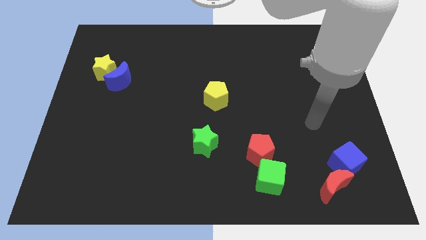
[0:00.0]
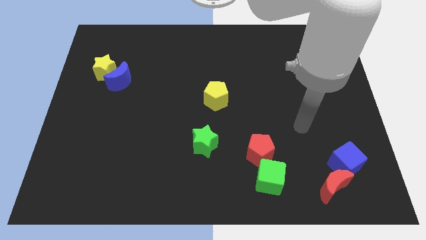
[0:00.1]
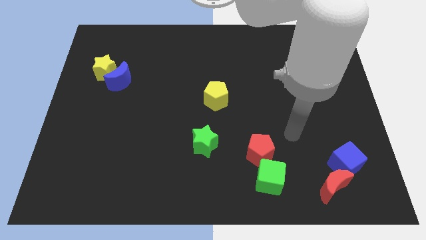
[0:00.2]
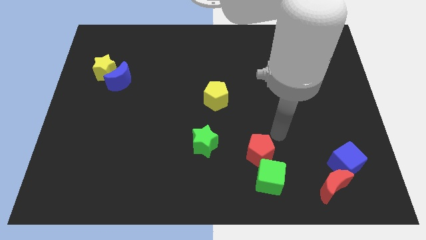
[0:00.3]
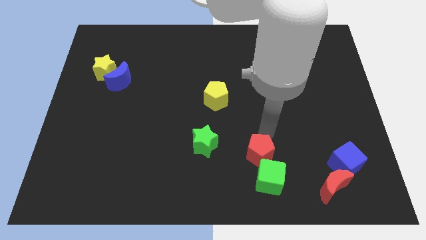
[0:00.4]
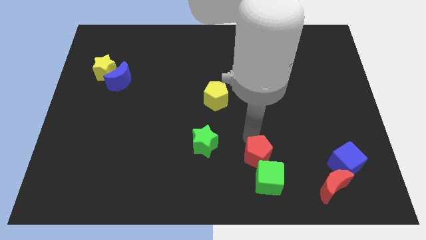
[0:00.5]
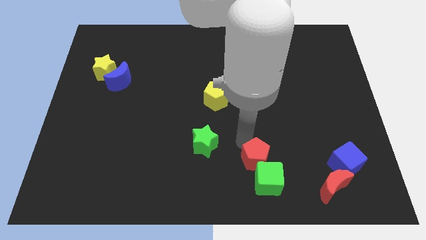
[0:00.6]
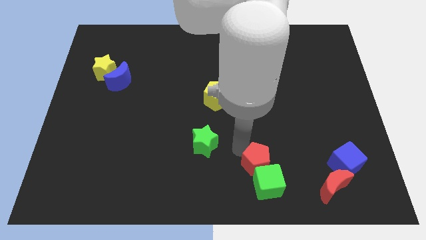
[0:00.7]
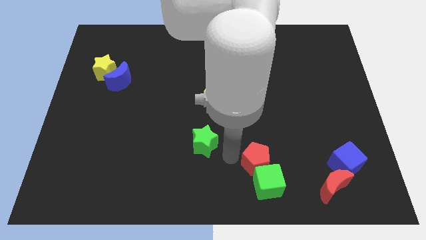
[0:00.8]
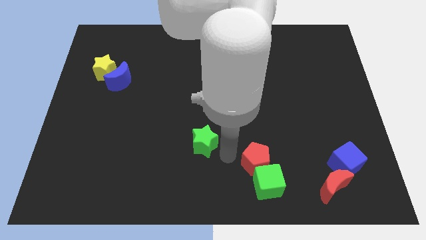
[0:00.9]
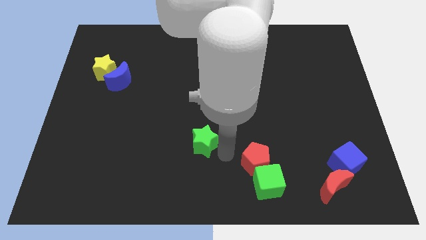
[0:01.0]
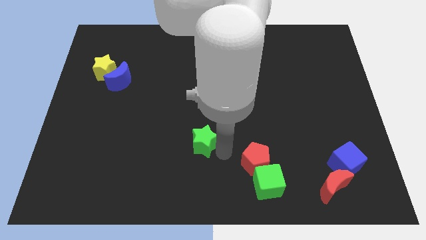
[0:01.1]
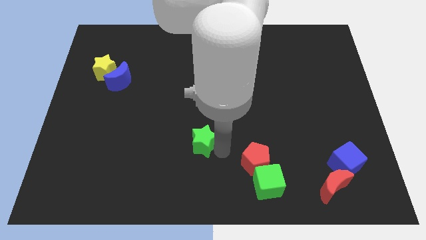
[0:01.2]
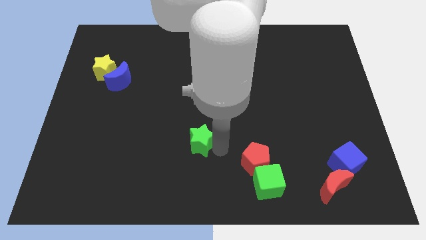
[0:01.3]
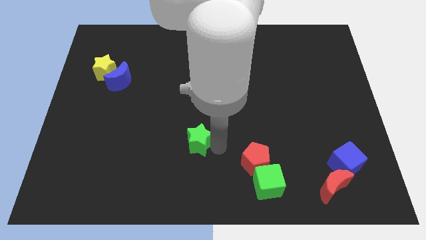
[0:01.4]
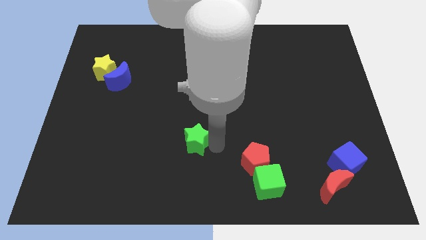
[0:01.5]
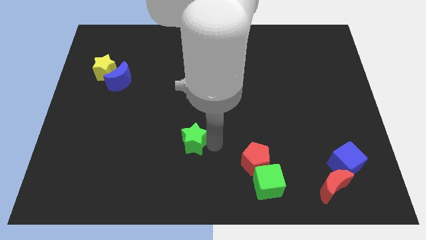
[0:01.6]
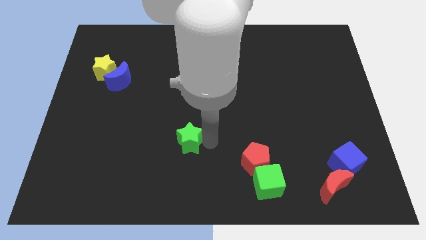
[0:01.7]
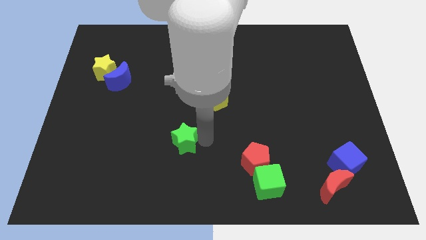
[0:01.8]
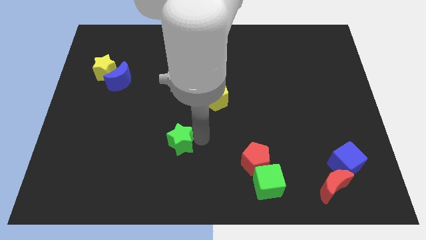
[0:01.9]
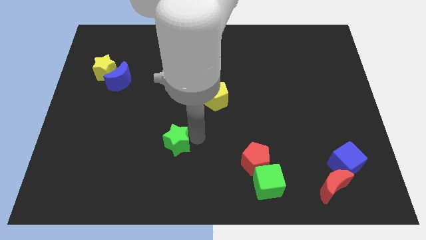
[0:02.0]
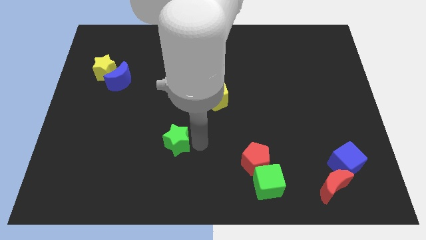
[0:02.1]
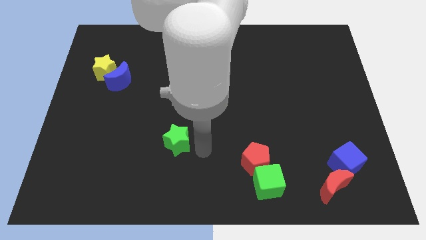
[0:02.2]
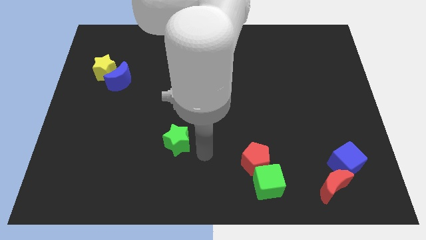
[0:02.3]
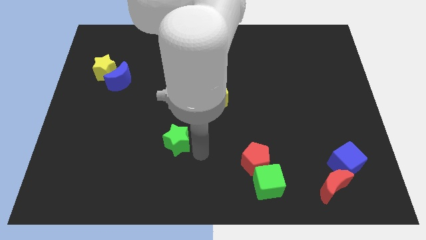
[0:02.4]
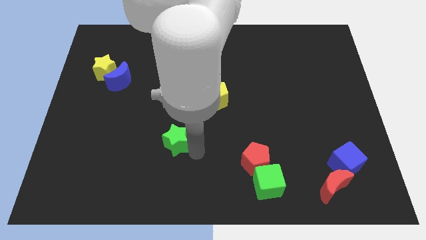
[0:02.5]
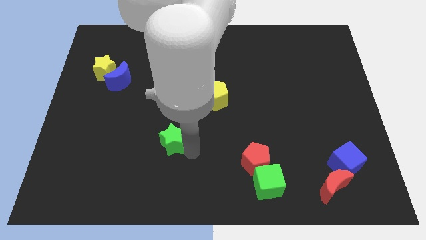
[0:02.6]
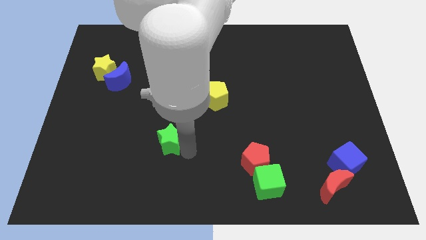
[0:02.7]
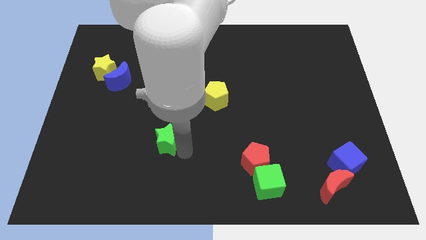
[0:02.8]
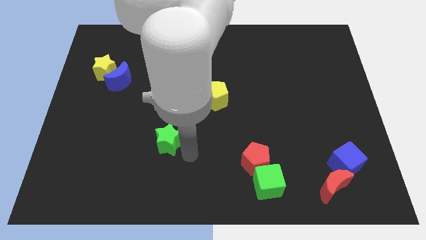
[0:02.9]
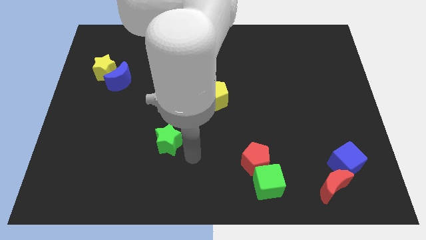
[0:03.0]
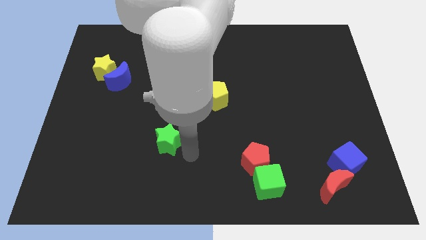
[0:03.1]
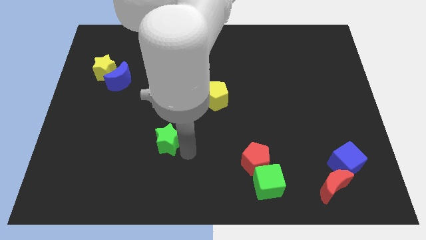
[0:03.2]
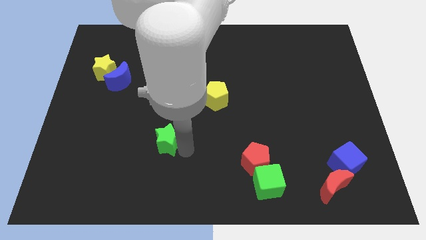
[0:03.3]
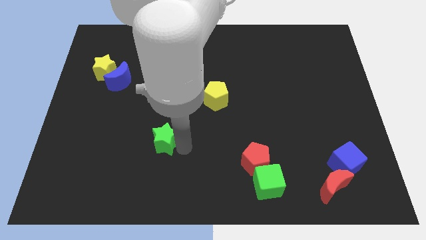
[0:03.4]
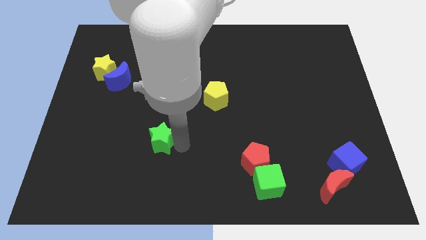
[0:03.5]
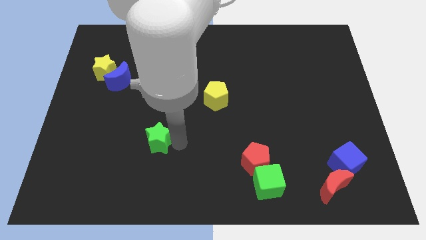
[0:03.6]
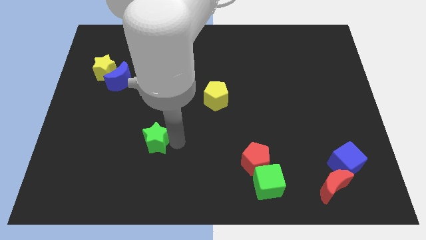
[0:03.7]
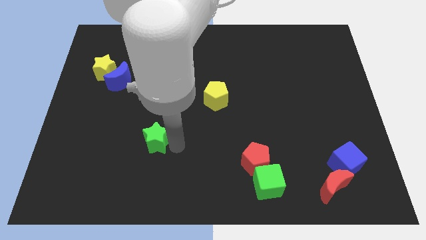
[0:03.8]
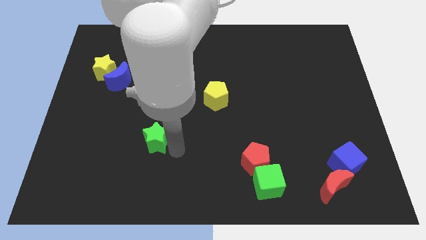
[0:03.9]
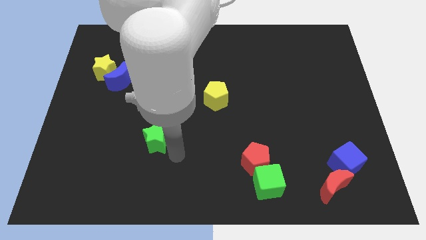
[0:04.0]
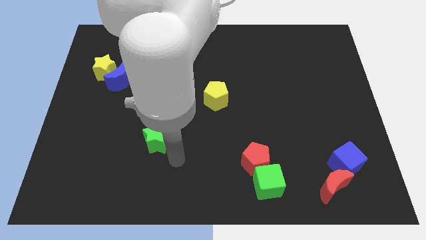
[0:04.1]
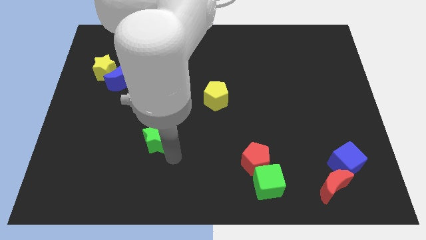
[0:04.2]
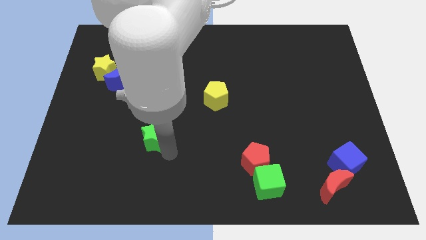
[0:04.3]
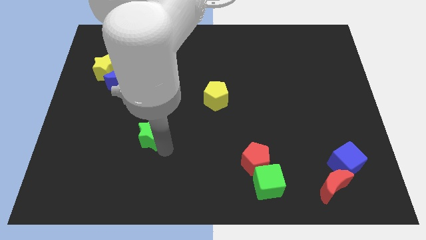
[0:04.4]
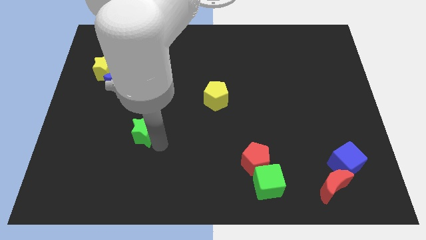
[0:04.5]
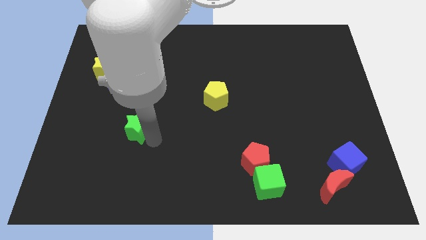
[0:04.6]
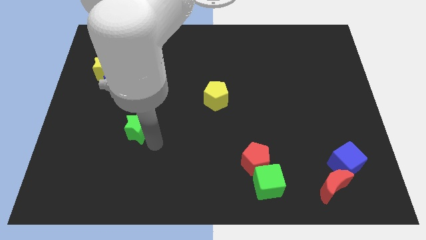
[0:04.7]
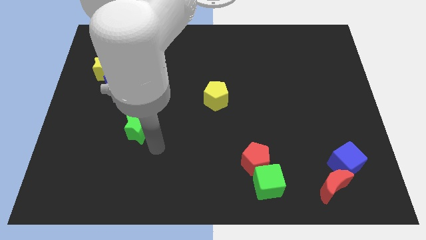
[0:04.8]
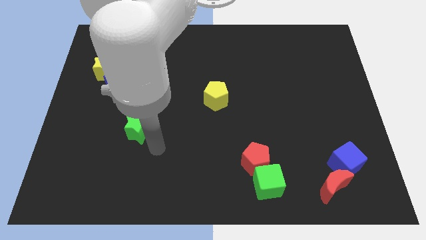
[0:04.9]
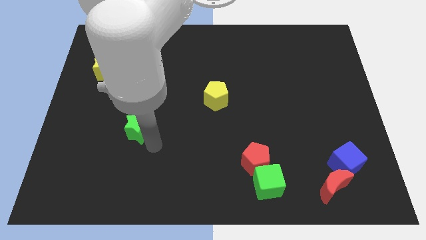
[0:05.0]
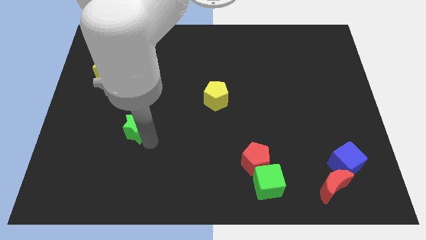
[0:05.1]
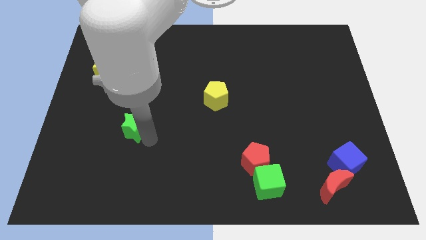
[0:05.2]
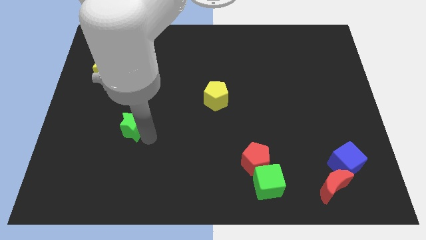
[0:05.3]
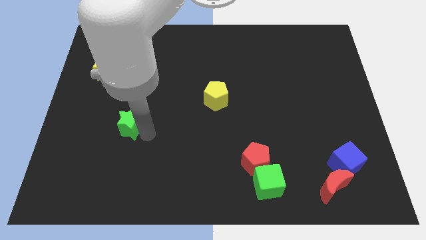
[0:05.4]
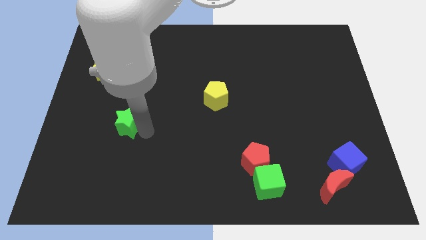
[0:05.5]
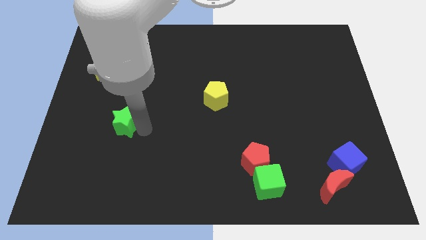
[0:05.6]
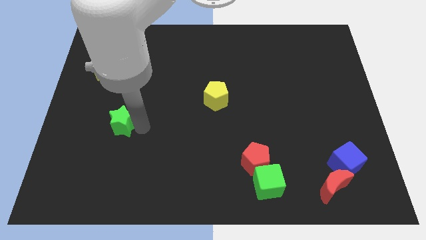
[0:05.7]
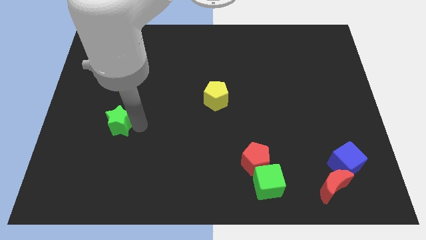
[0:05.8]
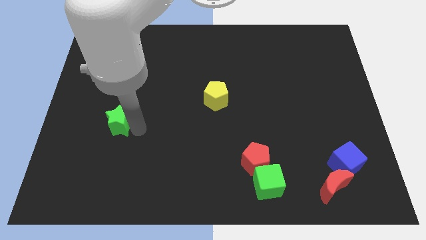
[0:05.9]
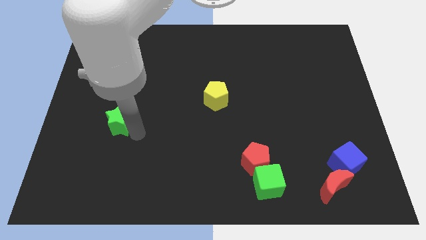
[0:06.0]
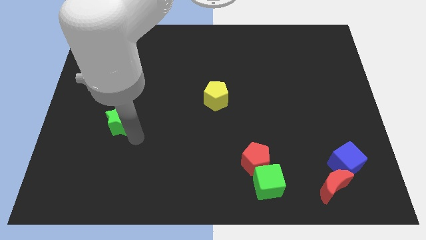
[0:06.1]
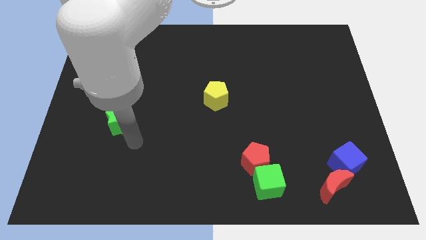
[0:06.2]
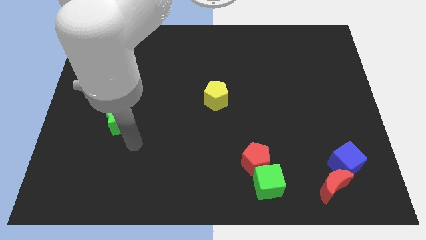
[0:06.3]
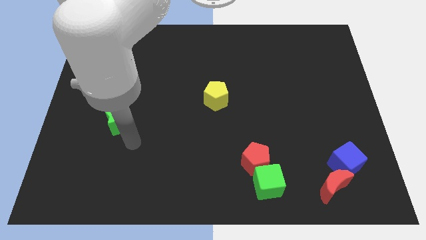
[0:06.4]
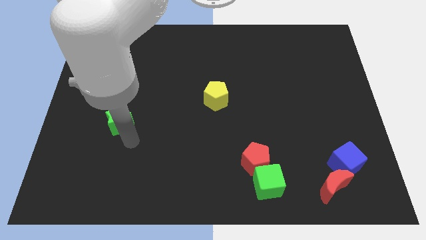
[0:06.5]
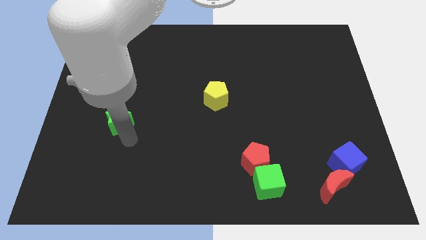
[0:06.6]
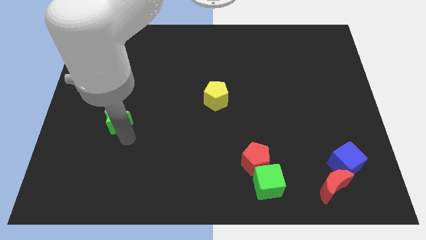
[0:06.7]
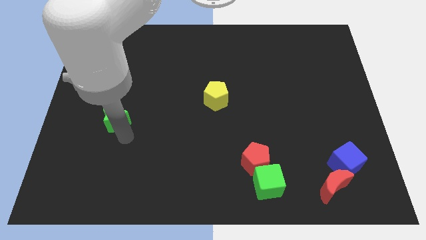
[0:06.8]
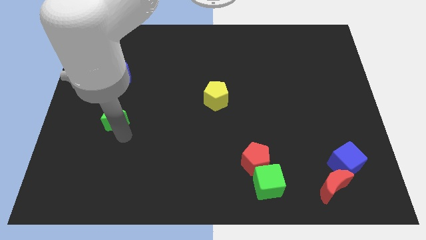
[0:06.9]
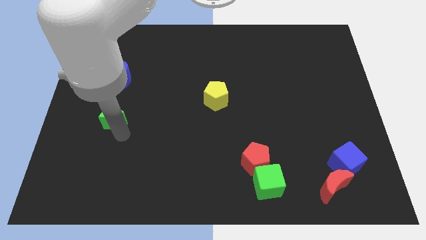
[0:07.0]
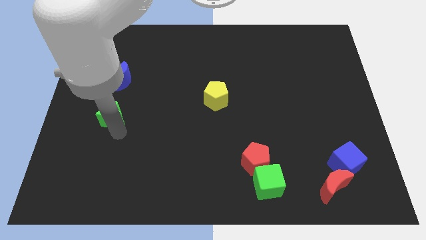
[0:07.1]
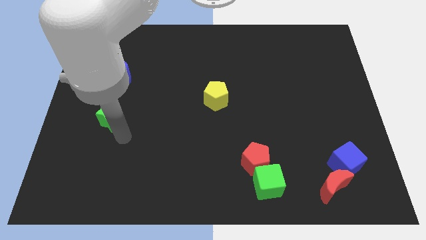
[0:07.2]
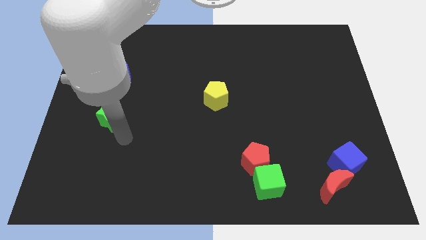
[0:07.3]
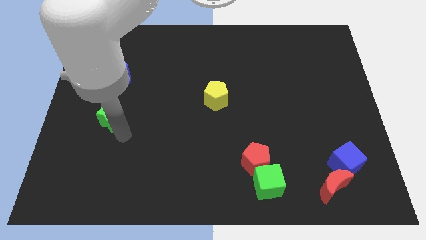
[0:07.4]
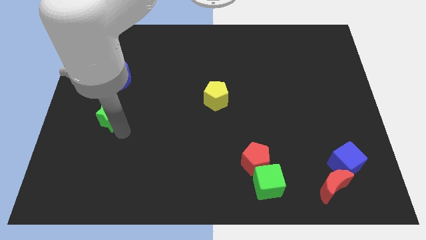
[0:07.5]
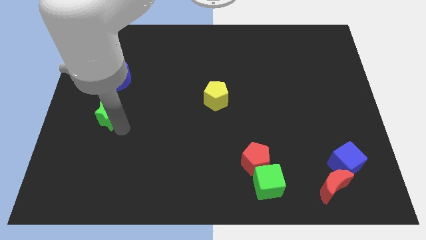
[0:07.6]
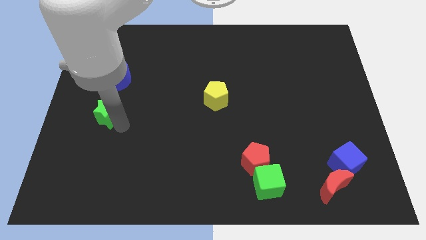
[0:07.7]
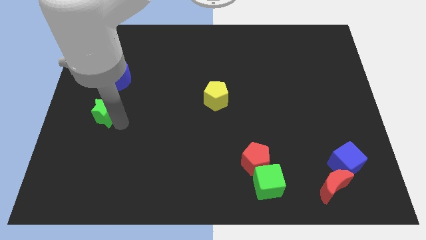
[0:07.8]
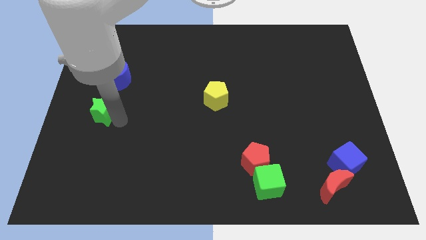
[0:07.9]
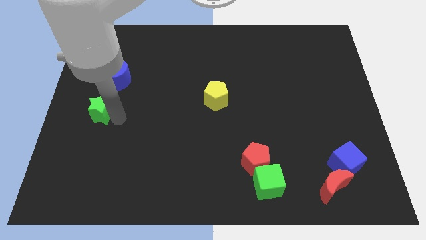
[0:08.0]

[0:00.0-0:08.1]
slide the green star to the bottom left of the blue moon
